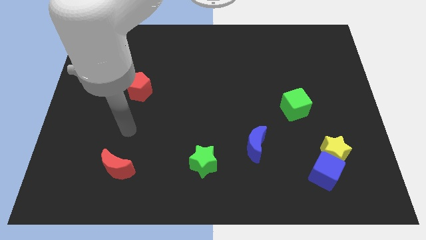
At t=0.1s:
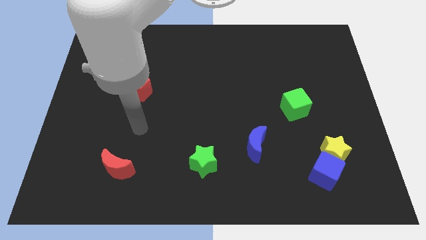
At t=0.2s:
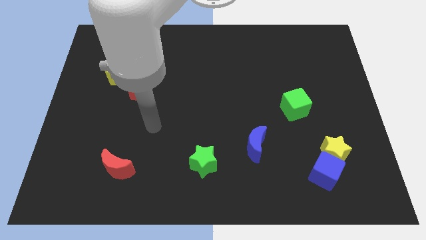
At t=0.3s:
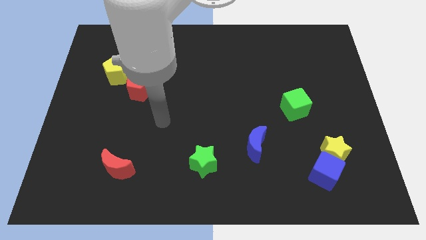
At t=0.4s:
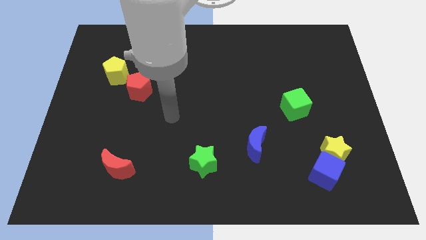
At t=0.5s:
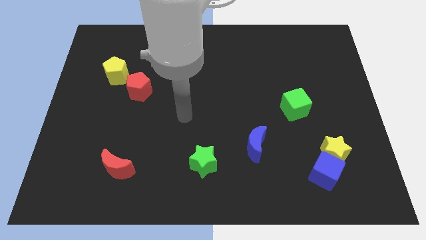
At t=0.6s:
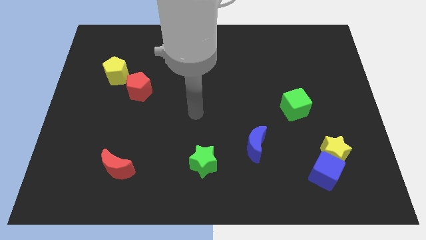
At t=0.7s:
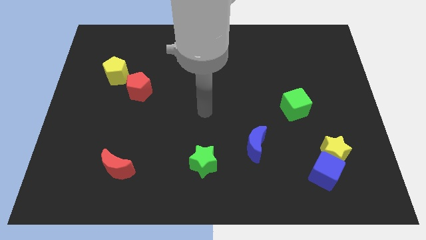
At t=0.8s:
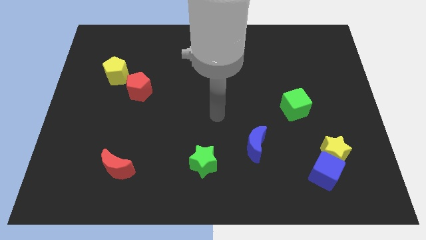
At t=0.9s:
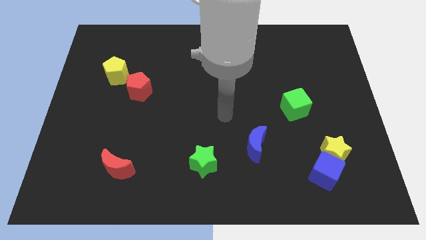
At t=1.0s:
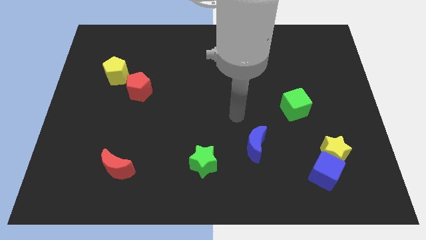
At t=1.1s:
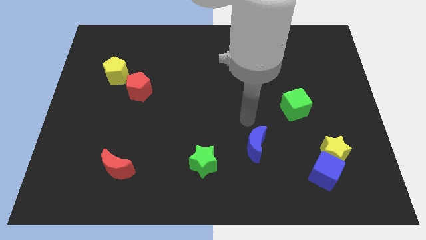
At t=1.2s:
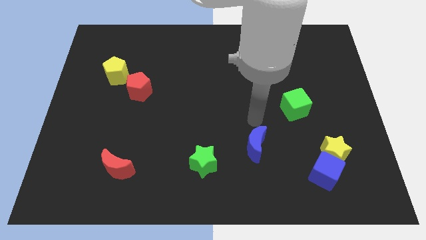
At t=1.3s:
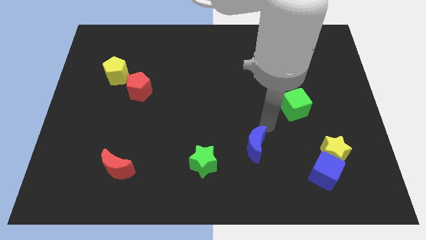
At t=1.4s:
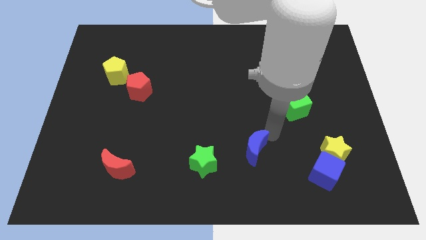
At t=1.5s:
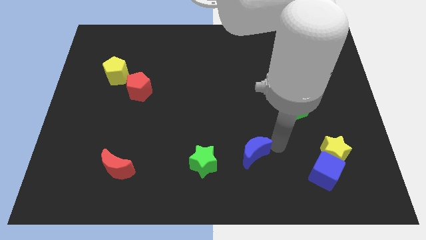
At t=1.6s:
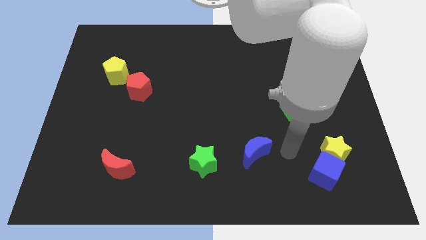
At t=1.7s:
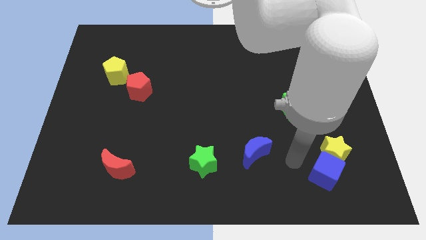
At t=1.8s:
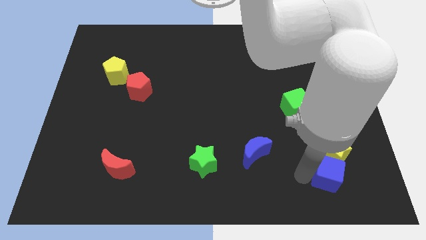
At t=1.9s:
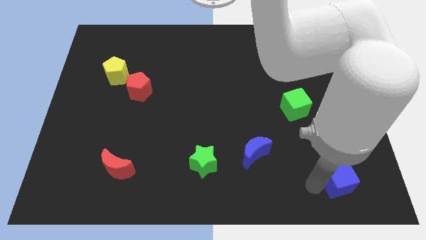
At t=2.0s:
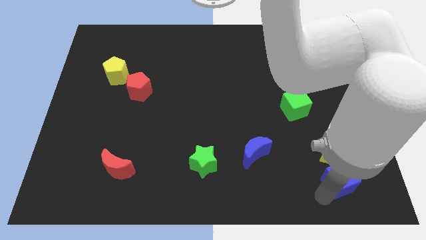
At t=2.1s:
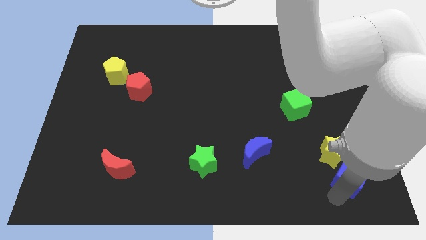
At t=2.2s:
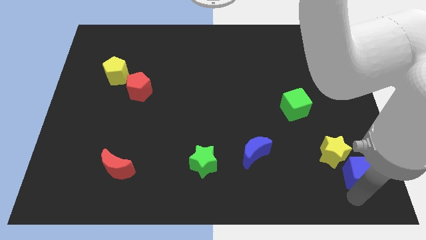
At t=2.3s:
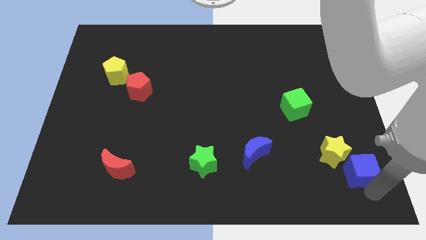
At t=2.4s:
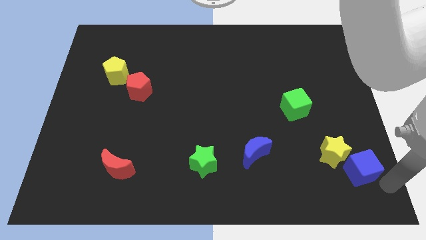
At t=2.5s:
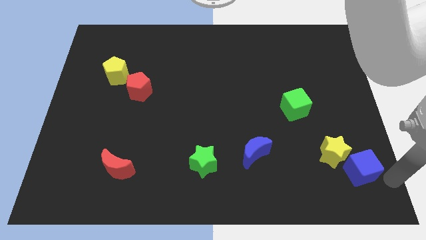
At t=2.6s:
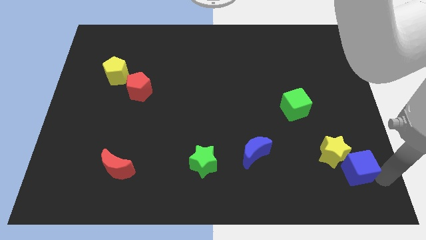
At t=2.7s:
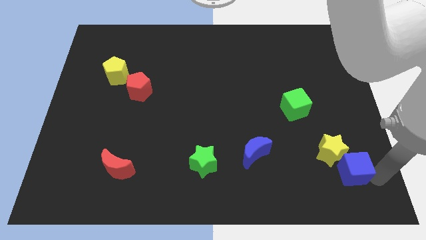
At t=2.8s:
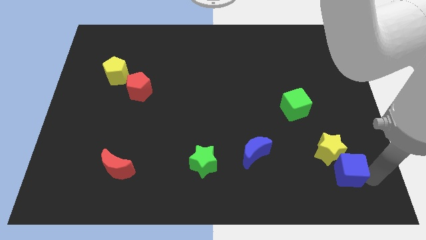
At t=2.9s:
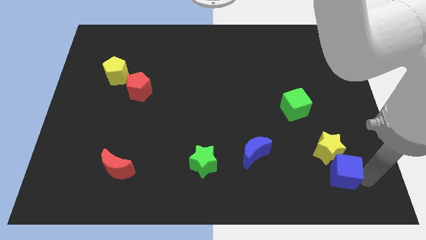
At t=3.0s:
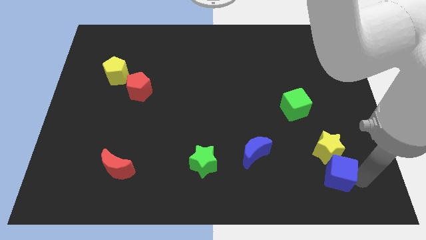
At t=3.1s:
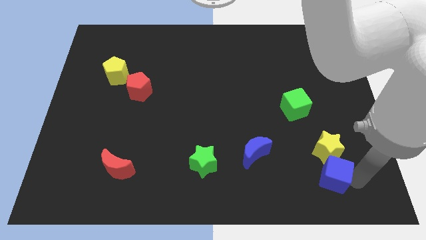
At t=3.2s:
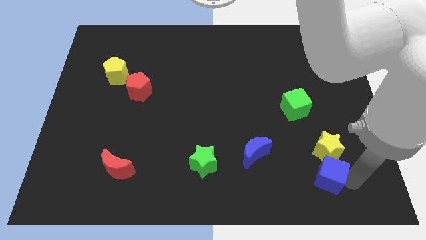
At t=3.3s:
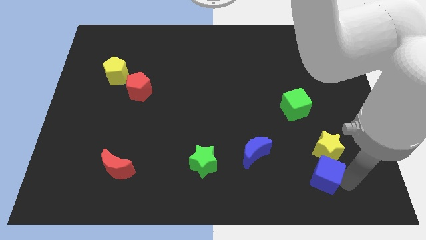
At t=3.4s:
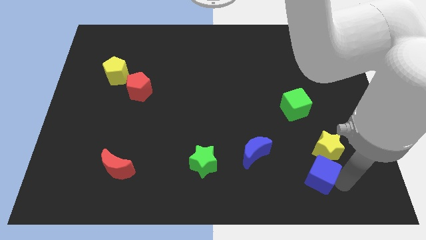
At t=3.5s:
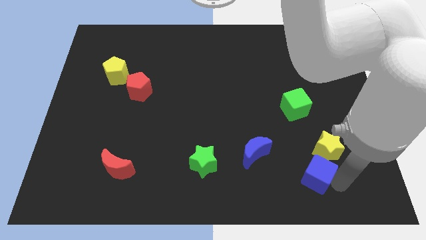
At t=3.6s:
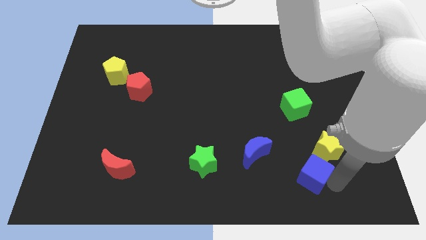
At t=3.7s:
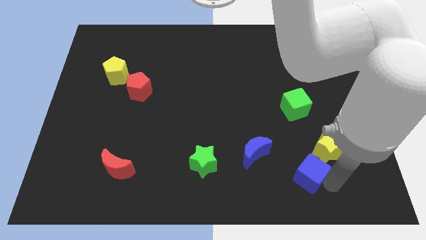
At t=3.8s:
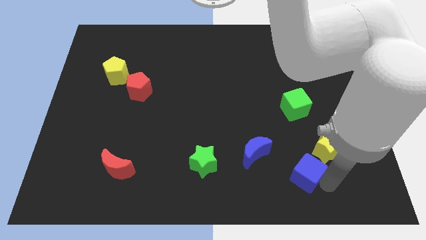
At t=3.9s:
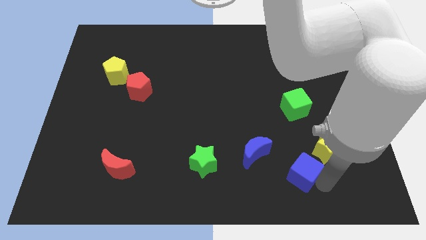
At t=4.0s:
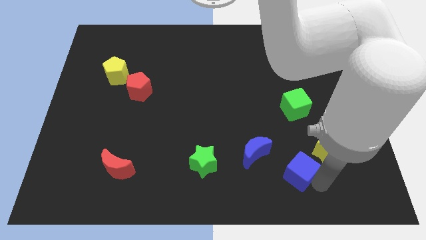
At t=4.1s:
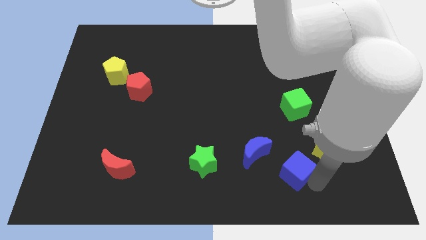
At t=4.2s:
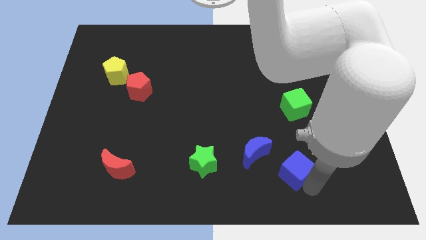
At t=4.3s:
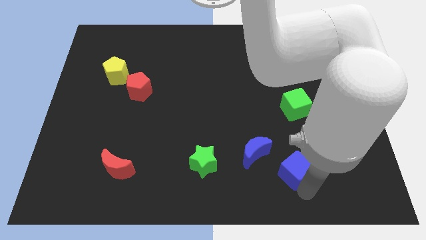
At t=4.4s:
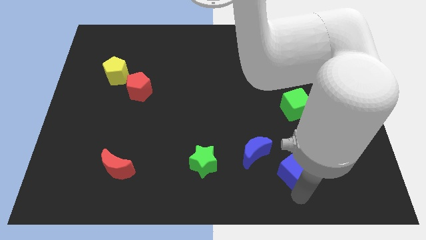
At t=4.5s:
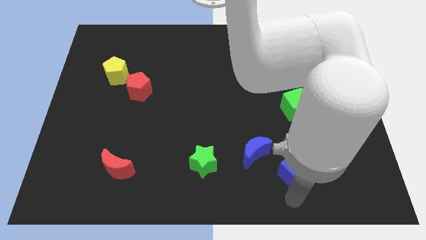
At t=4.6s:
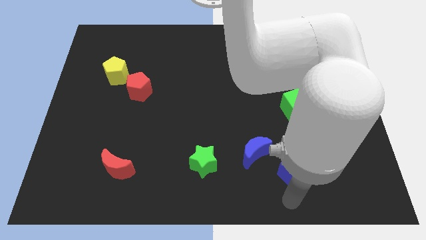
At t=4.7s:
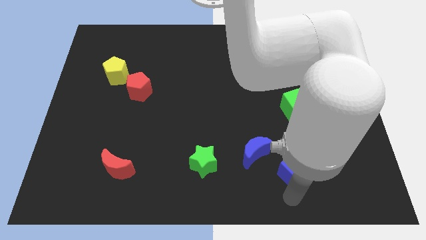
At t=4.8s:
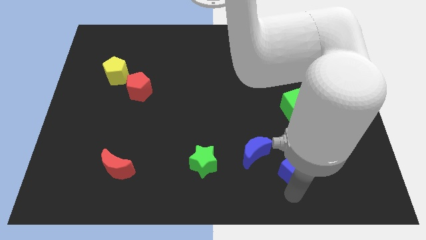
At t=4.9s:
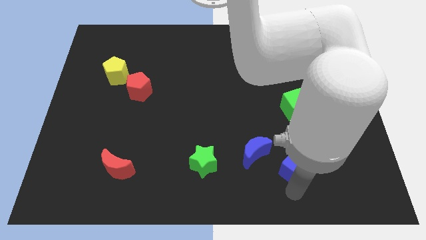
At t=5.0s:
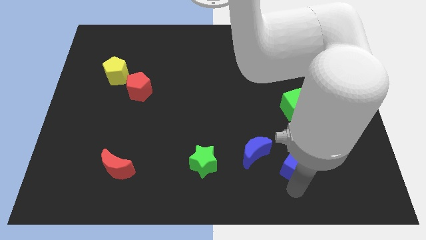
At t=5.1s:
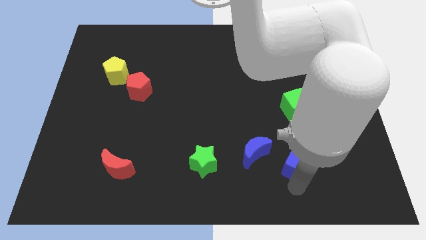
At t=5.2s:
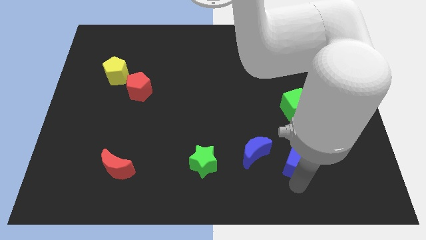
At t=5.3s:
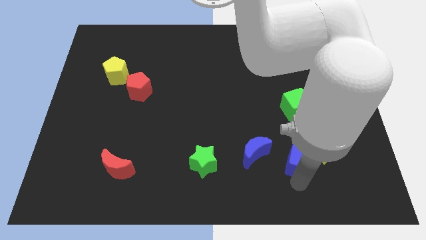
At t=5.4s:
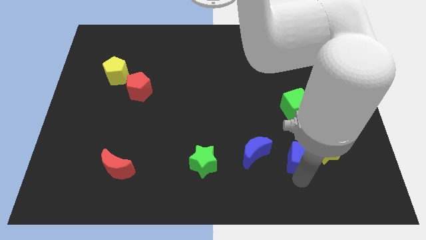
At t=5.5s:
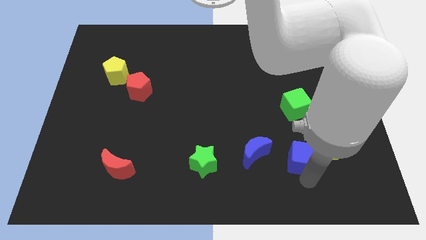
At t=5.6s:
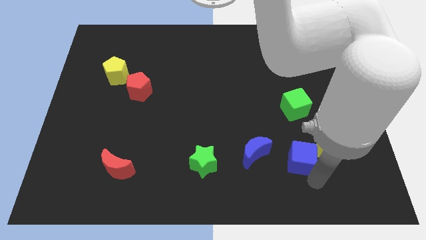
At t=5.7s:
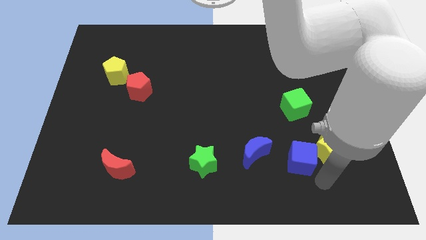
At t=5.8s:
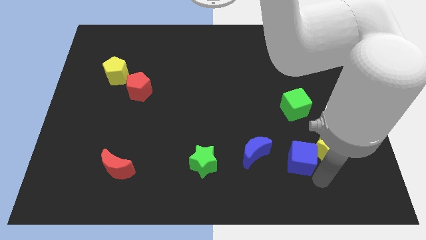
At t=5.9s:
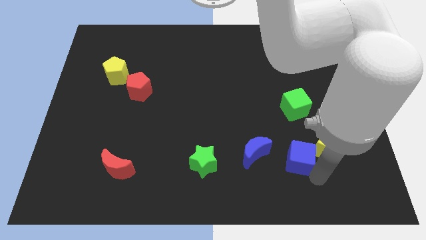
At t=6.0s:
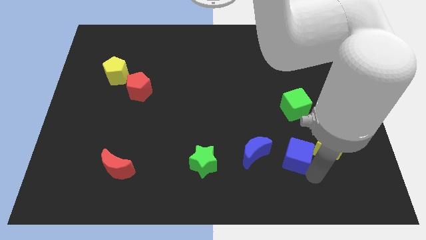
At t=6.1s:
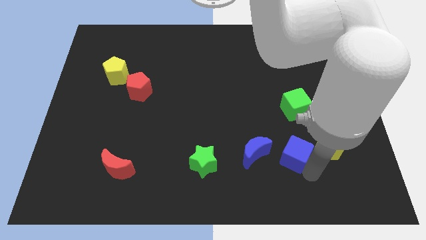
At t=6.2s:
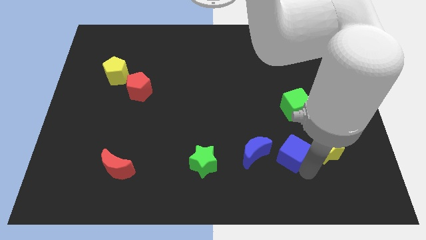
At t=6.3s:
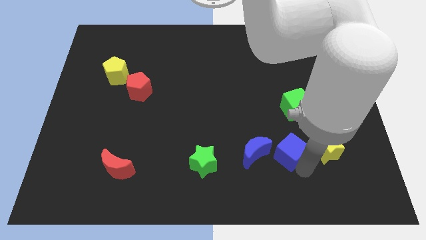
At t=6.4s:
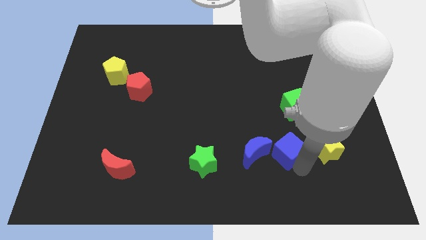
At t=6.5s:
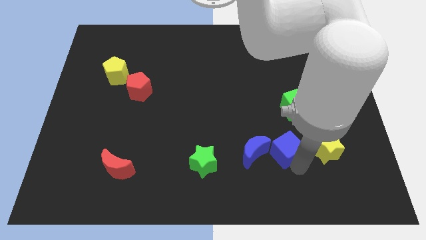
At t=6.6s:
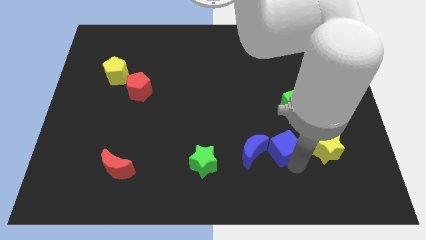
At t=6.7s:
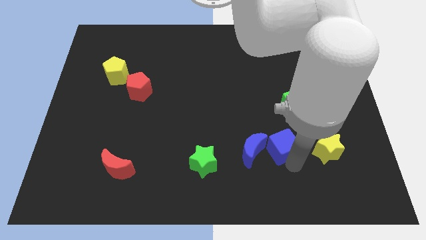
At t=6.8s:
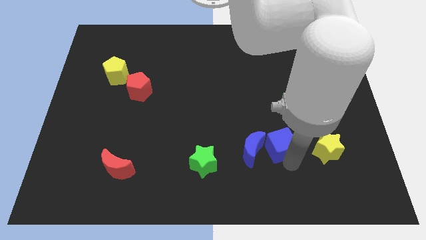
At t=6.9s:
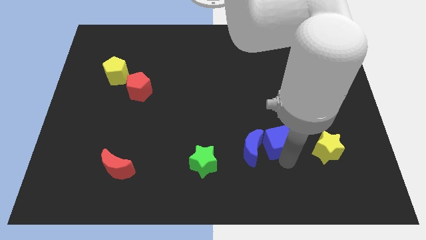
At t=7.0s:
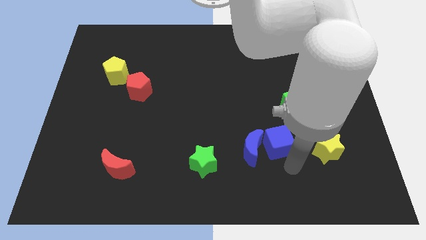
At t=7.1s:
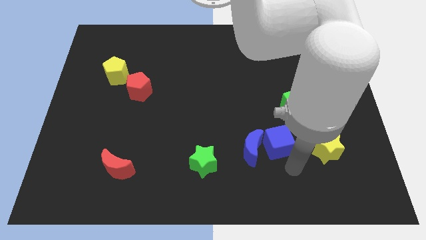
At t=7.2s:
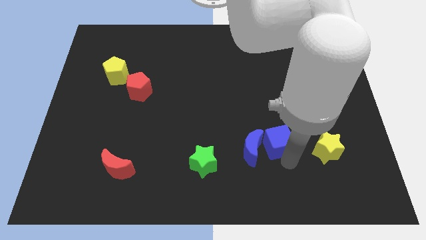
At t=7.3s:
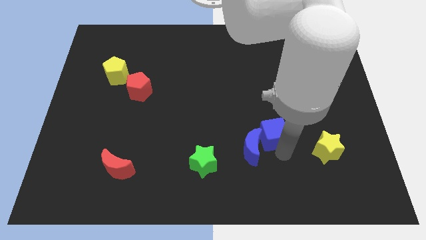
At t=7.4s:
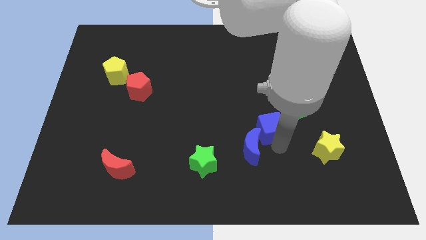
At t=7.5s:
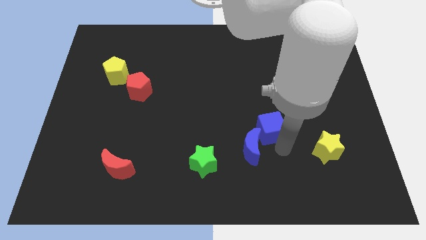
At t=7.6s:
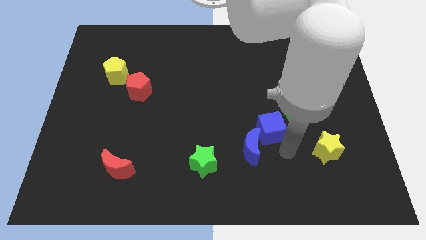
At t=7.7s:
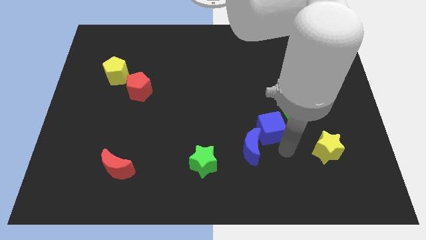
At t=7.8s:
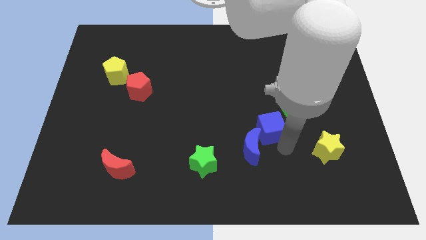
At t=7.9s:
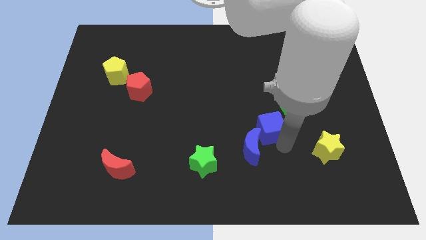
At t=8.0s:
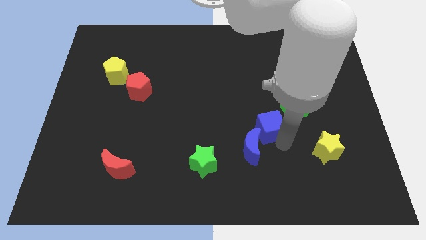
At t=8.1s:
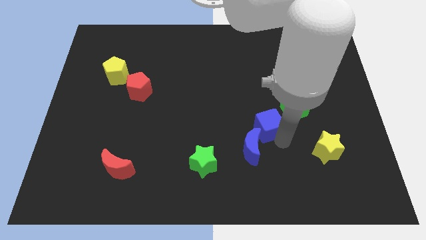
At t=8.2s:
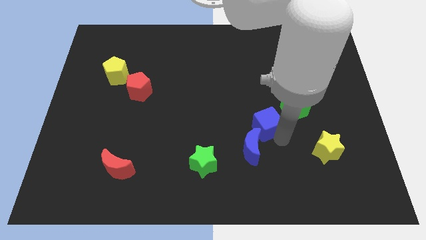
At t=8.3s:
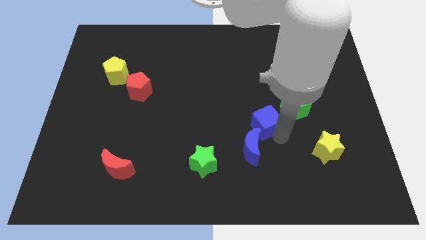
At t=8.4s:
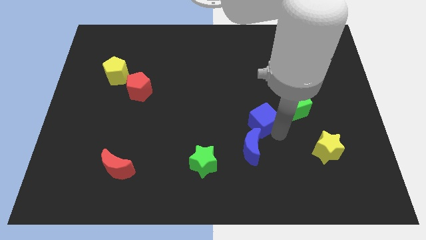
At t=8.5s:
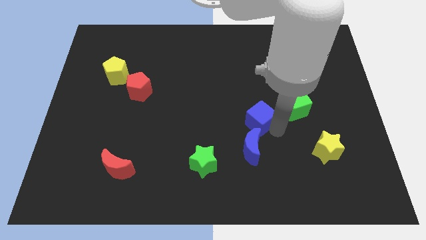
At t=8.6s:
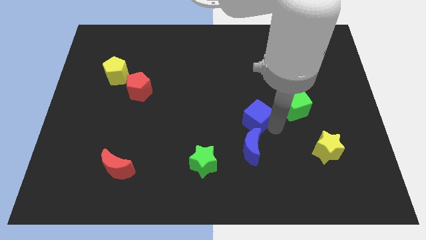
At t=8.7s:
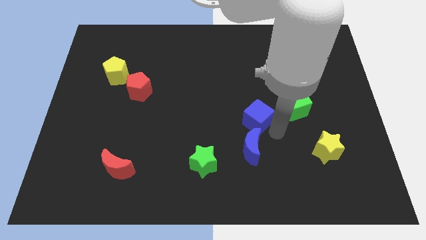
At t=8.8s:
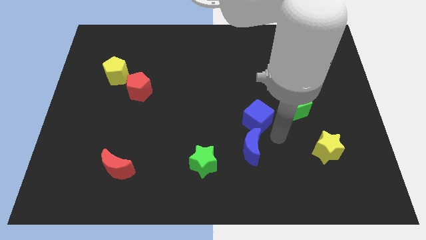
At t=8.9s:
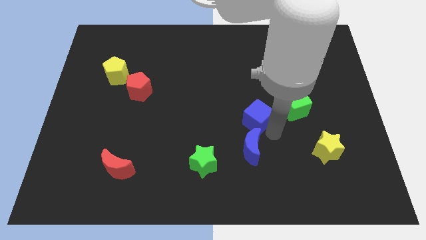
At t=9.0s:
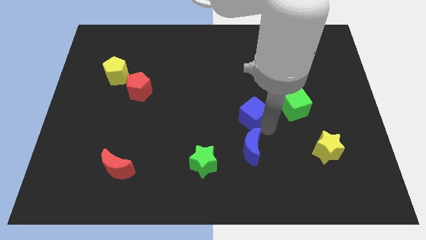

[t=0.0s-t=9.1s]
slide the blue cube up and then to the left
